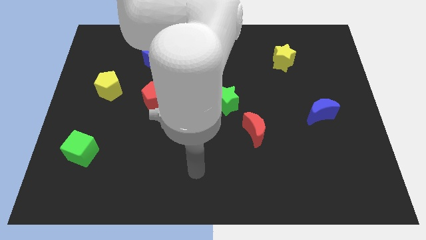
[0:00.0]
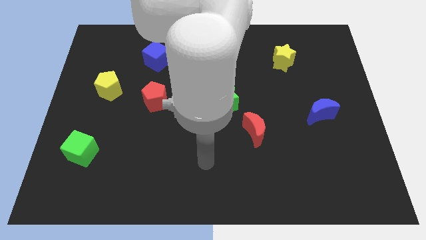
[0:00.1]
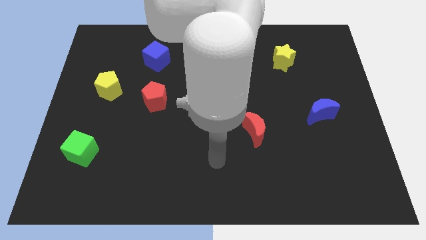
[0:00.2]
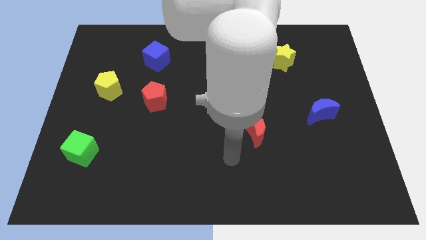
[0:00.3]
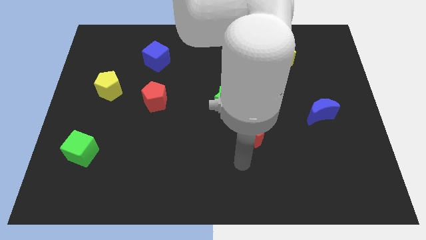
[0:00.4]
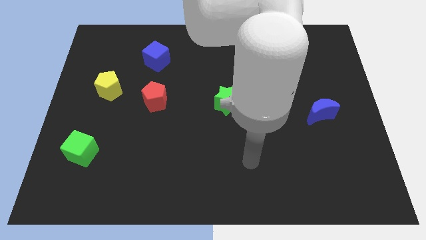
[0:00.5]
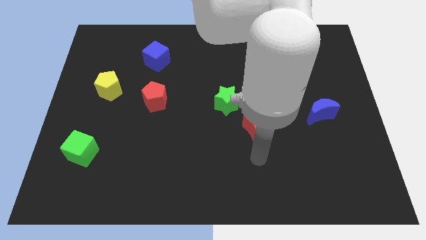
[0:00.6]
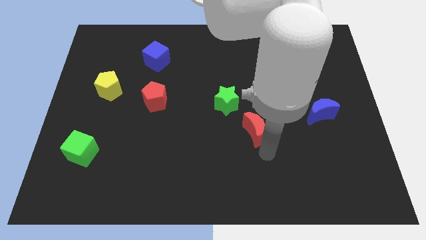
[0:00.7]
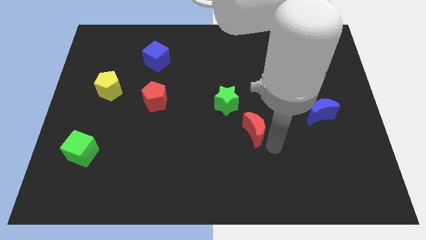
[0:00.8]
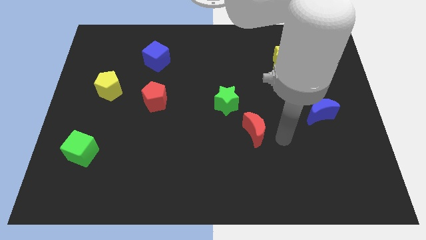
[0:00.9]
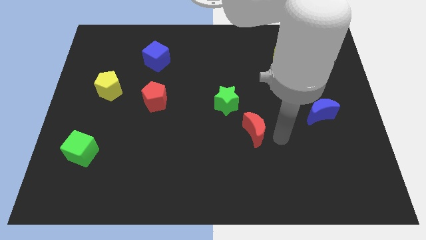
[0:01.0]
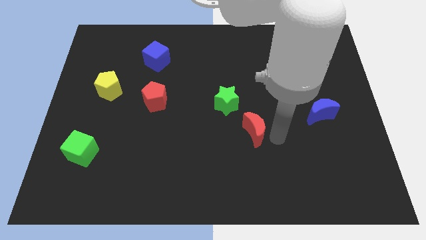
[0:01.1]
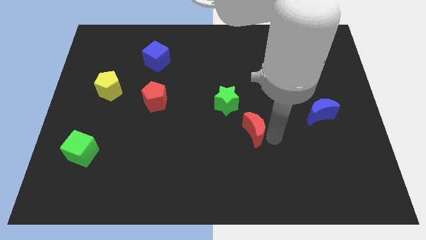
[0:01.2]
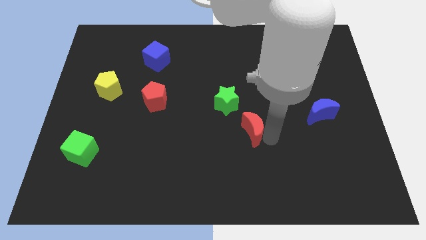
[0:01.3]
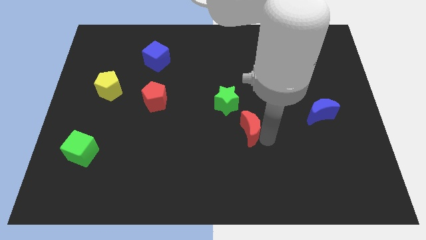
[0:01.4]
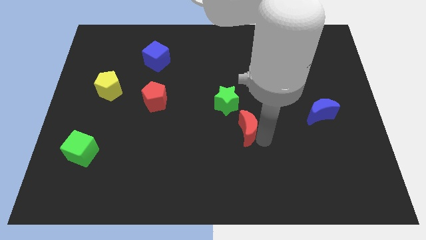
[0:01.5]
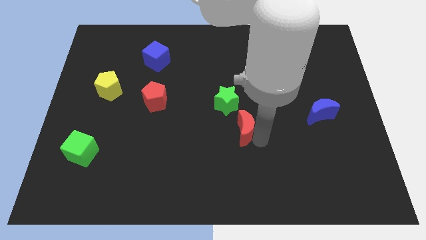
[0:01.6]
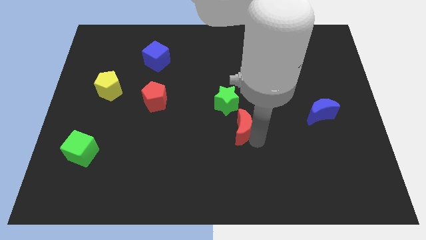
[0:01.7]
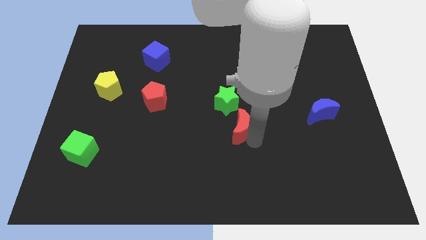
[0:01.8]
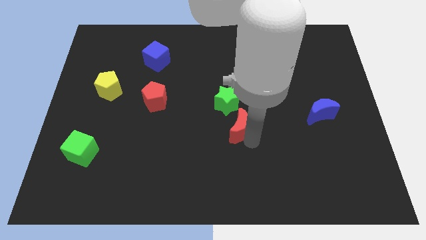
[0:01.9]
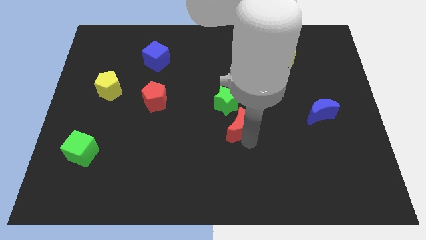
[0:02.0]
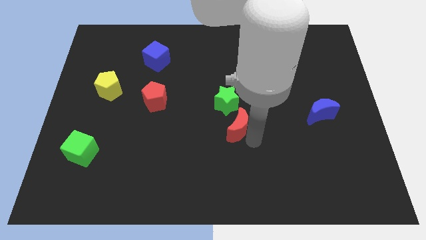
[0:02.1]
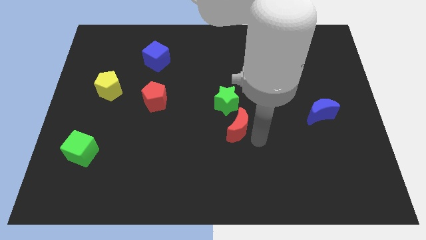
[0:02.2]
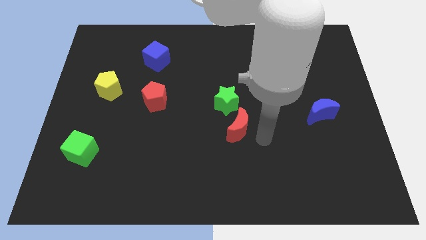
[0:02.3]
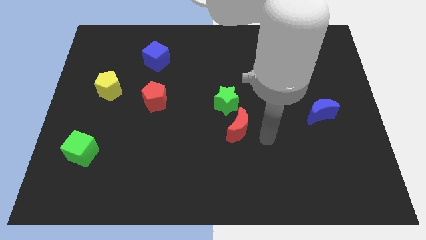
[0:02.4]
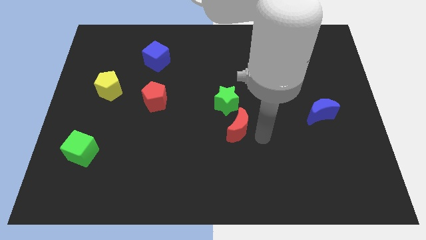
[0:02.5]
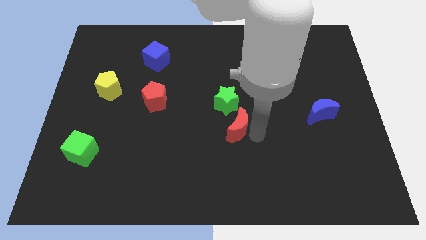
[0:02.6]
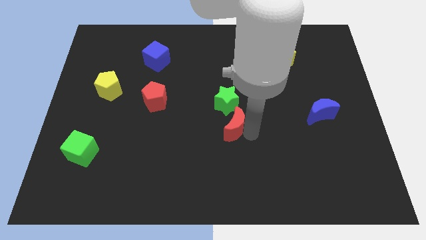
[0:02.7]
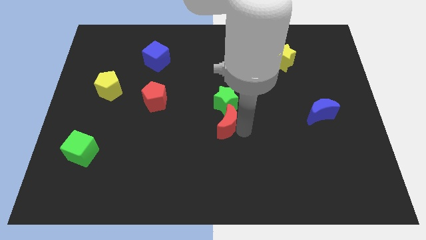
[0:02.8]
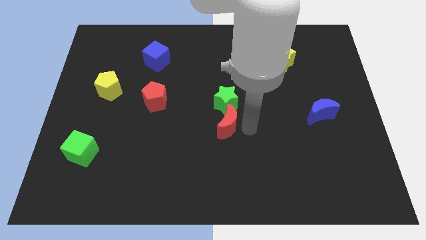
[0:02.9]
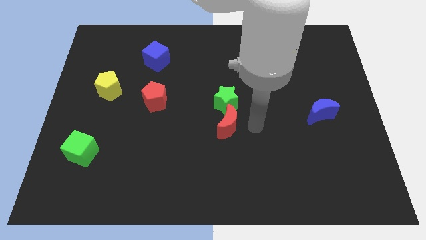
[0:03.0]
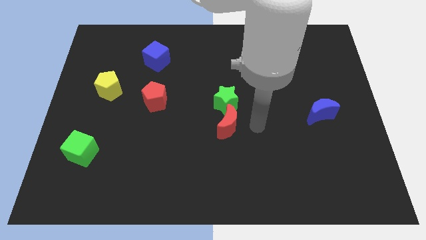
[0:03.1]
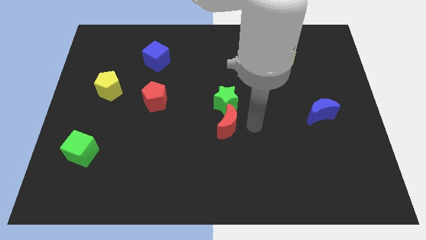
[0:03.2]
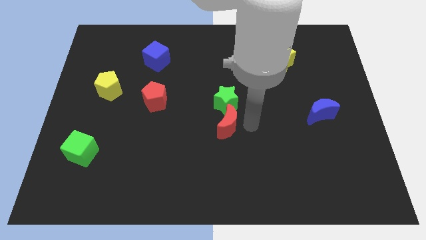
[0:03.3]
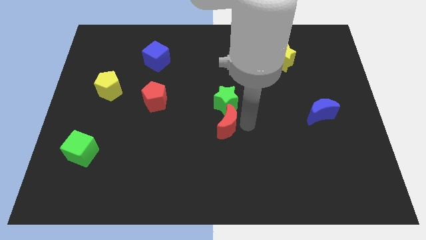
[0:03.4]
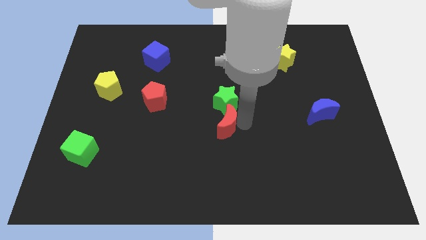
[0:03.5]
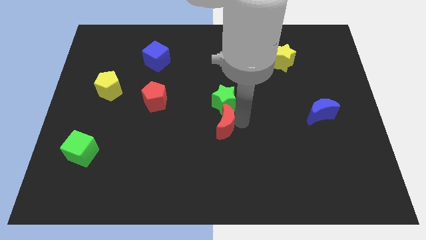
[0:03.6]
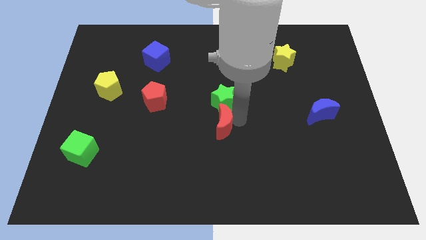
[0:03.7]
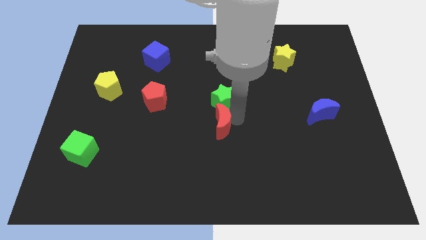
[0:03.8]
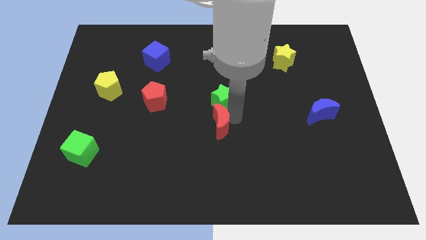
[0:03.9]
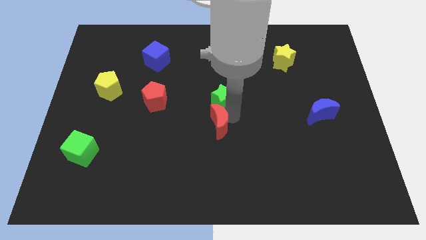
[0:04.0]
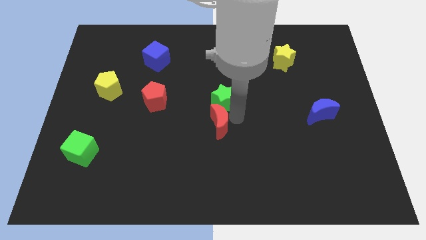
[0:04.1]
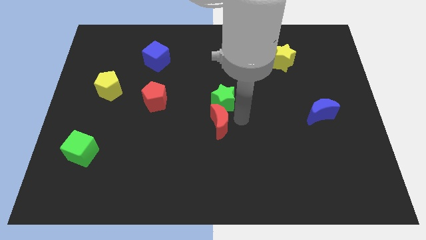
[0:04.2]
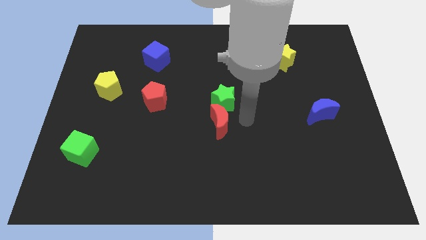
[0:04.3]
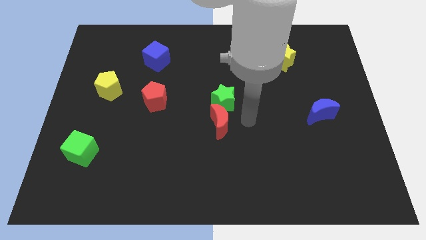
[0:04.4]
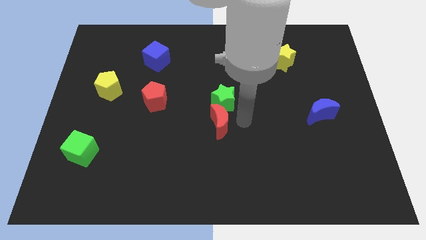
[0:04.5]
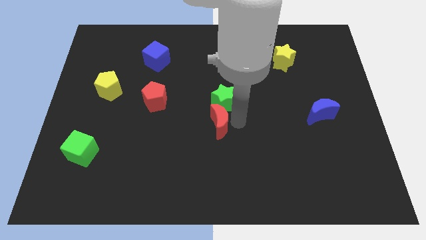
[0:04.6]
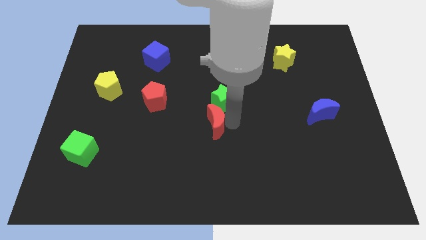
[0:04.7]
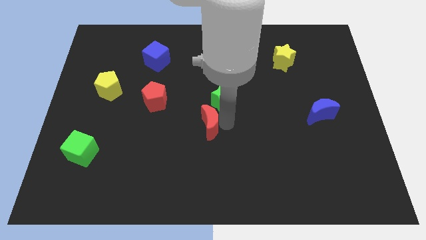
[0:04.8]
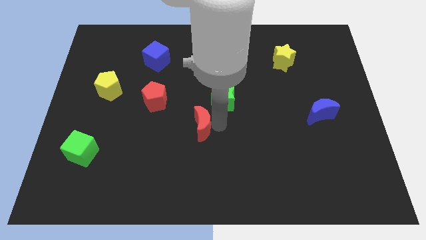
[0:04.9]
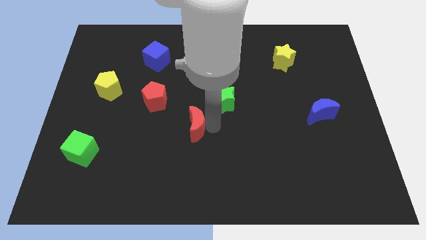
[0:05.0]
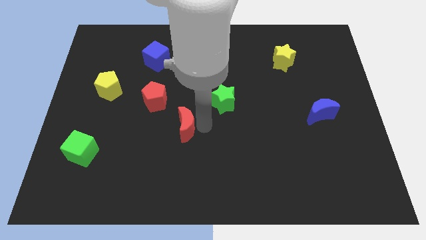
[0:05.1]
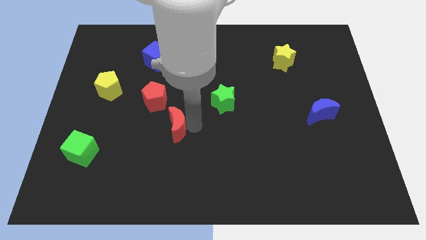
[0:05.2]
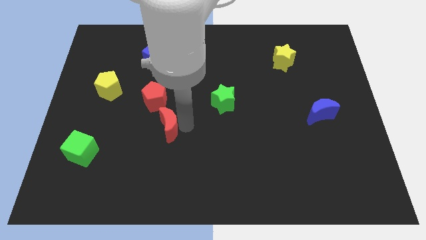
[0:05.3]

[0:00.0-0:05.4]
push the red moon to the bottom of the red pentagon

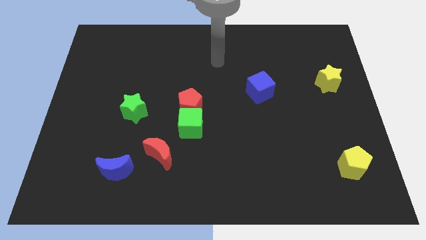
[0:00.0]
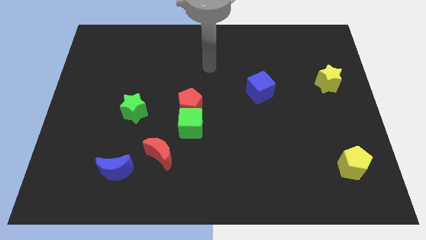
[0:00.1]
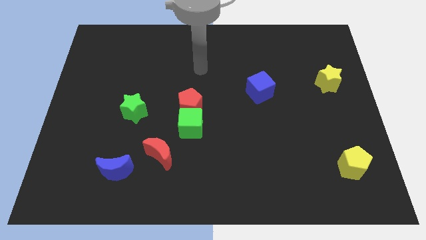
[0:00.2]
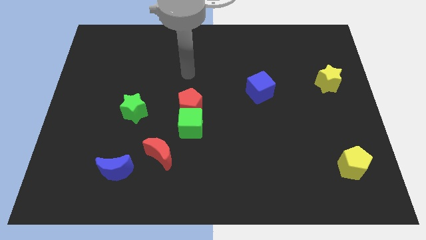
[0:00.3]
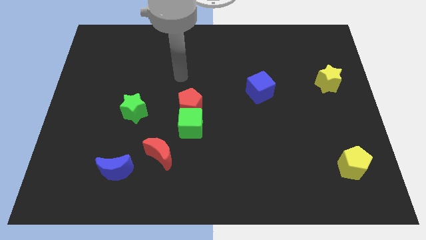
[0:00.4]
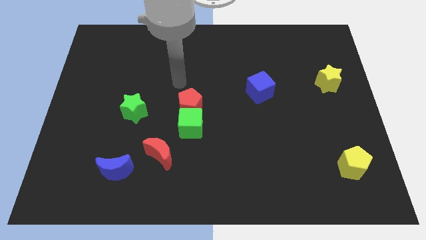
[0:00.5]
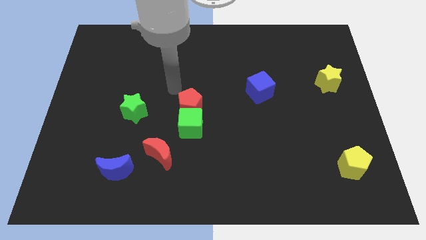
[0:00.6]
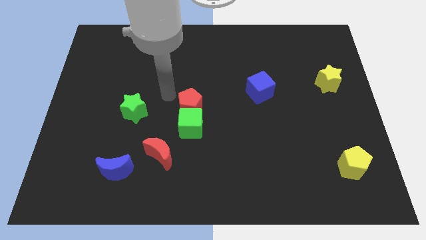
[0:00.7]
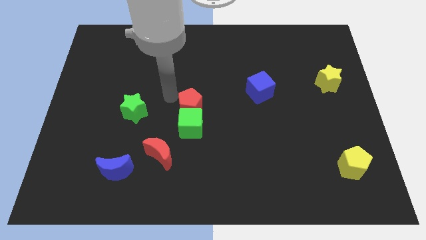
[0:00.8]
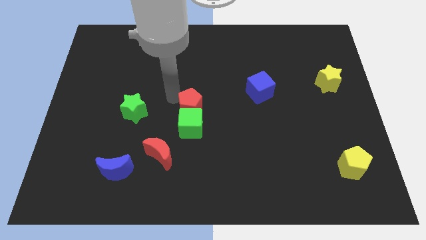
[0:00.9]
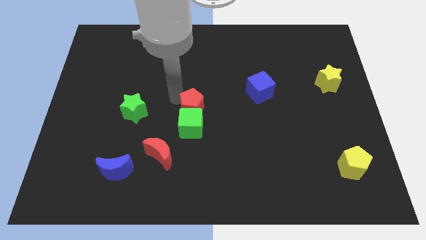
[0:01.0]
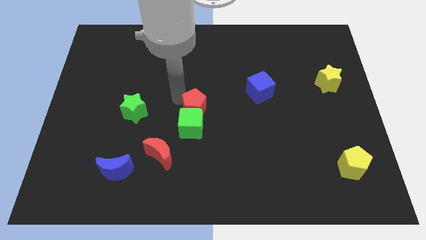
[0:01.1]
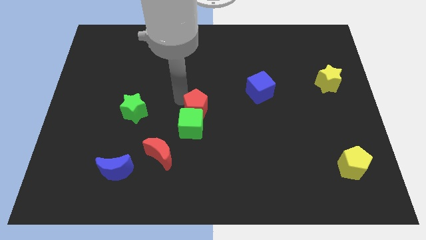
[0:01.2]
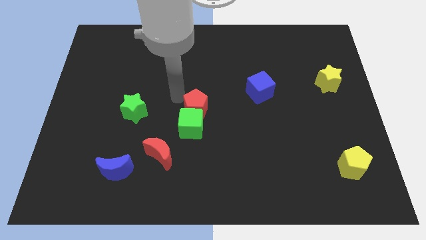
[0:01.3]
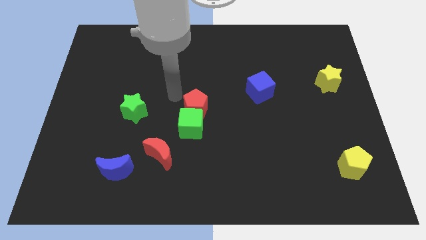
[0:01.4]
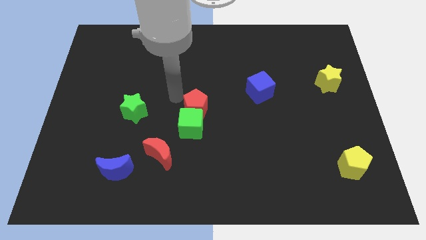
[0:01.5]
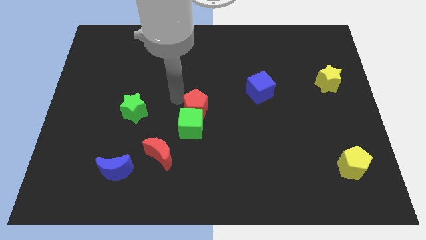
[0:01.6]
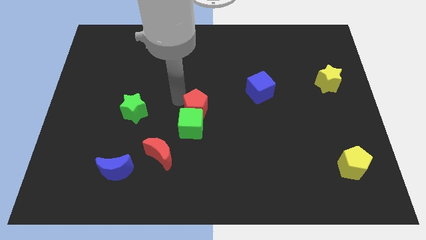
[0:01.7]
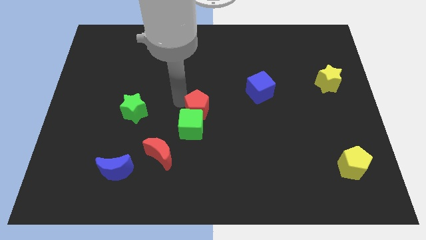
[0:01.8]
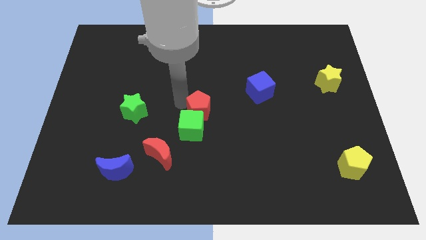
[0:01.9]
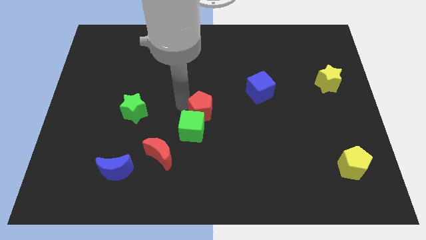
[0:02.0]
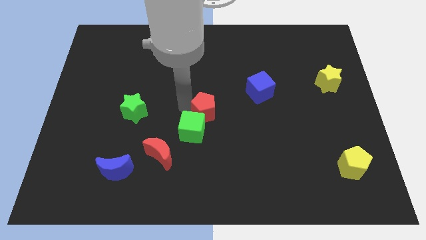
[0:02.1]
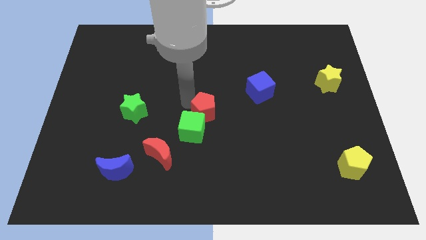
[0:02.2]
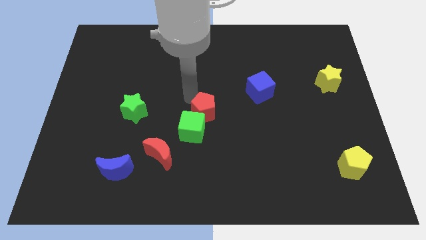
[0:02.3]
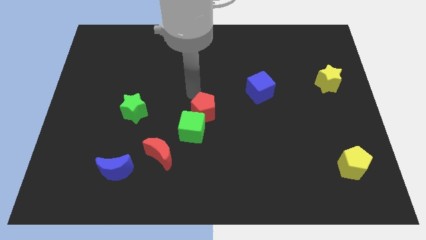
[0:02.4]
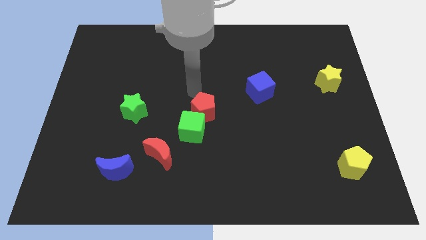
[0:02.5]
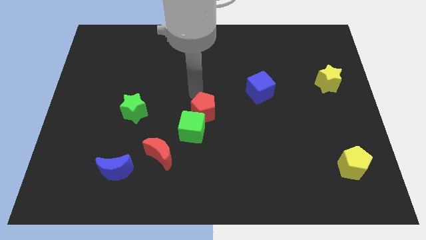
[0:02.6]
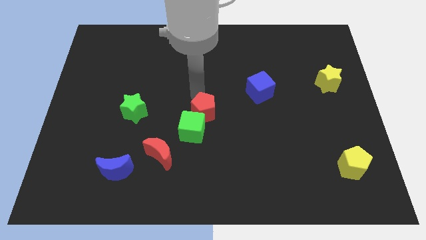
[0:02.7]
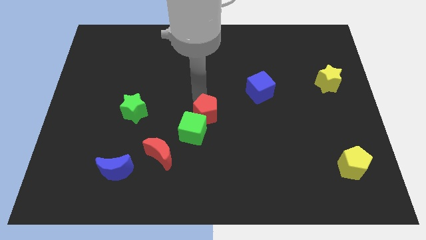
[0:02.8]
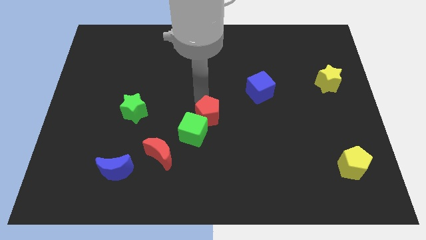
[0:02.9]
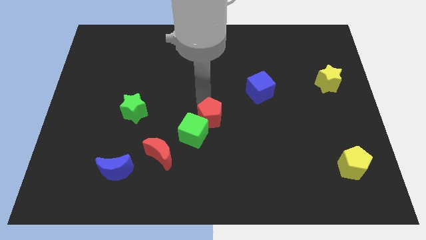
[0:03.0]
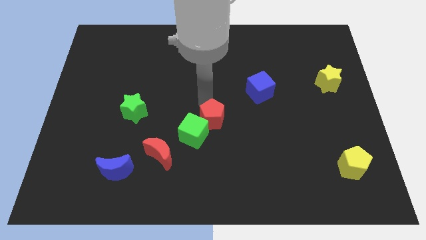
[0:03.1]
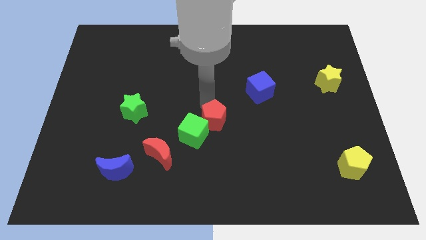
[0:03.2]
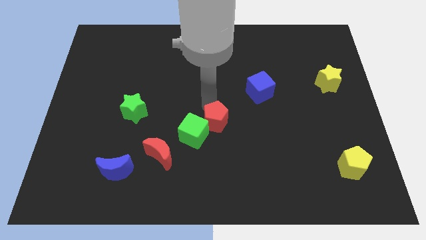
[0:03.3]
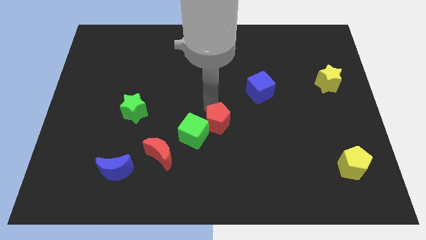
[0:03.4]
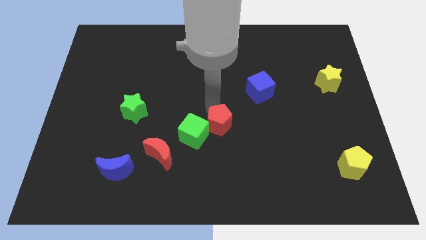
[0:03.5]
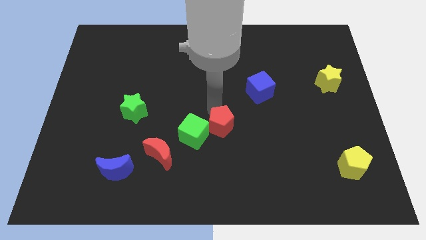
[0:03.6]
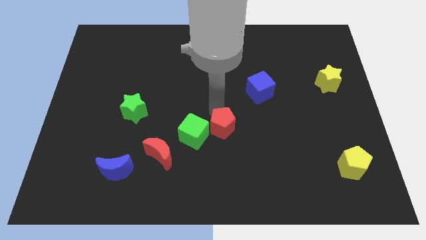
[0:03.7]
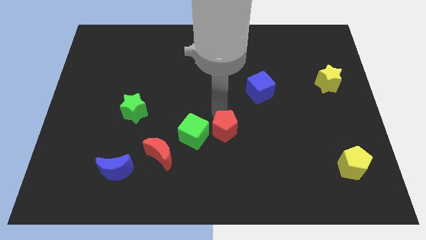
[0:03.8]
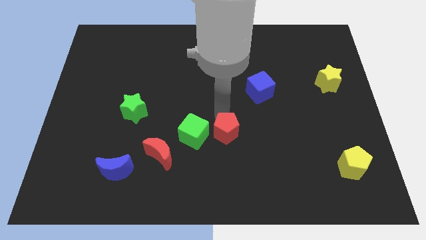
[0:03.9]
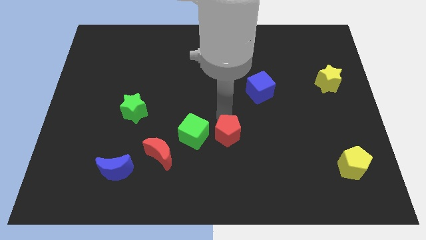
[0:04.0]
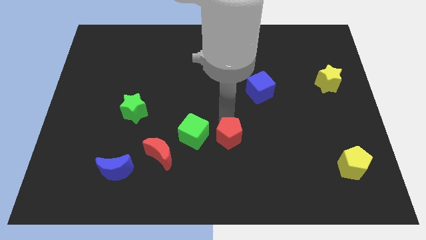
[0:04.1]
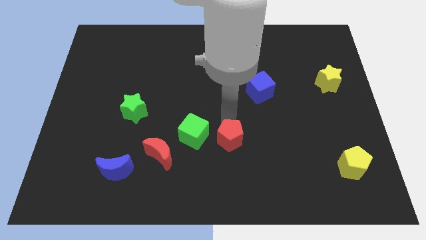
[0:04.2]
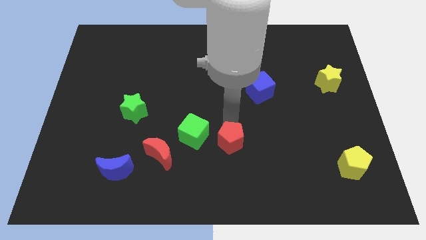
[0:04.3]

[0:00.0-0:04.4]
put the red pentagon right of the red moon
